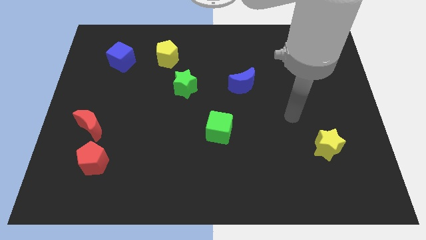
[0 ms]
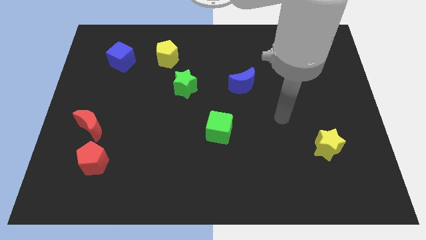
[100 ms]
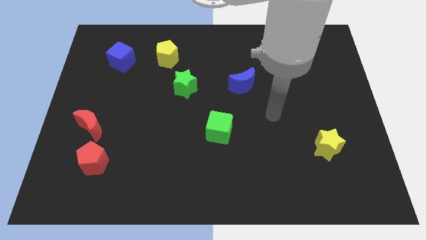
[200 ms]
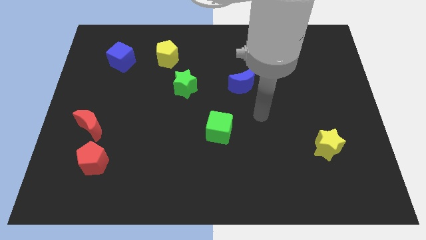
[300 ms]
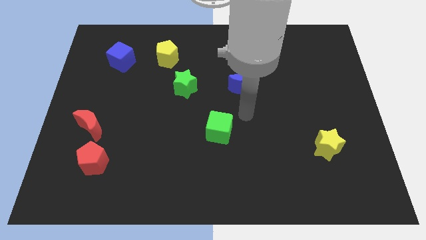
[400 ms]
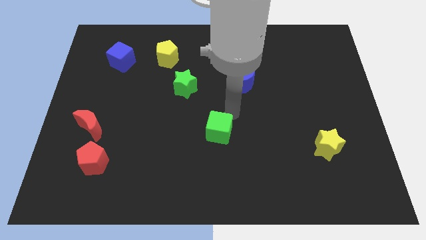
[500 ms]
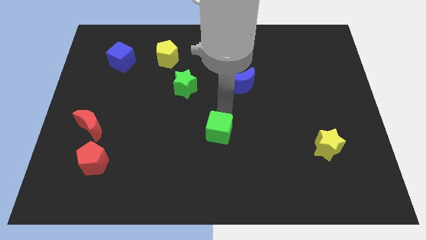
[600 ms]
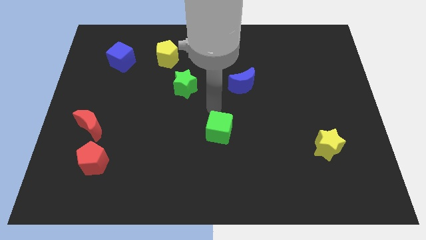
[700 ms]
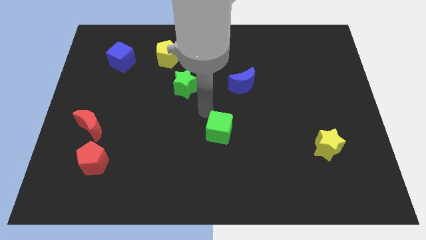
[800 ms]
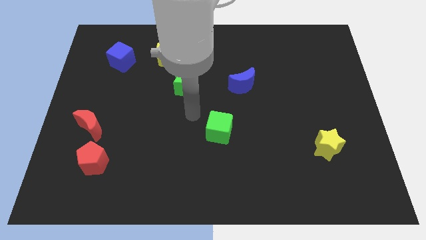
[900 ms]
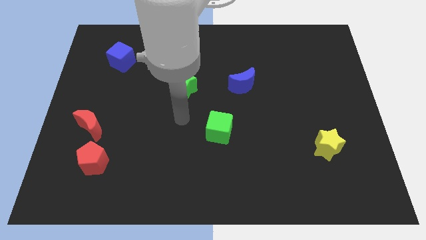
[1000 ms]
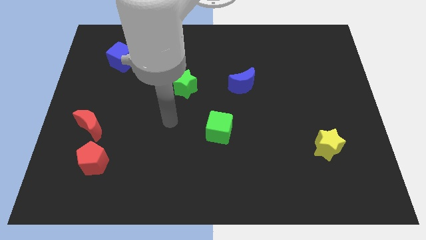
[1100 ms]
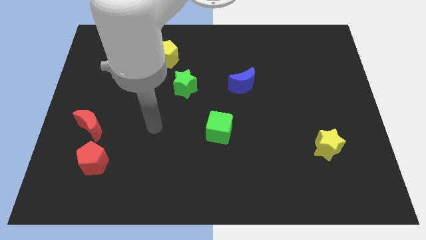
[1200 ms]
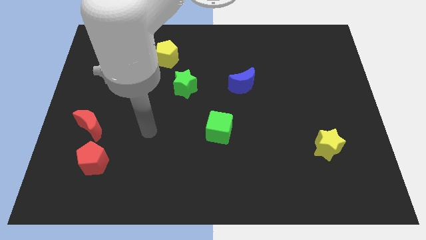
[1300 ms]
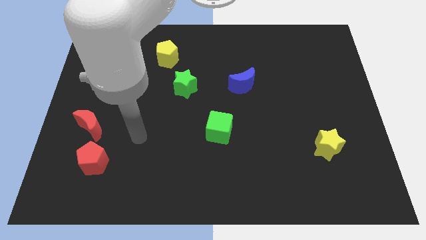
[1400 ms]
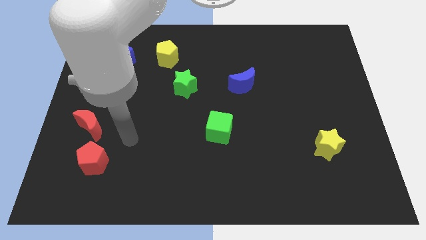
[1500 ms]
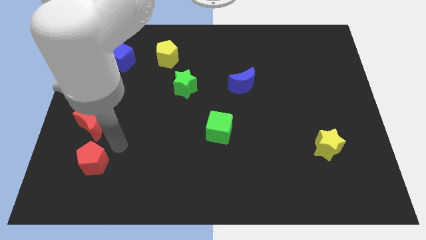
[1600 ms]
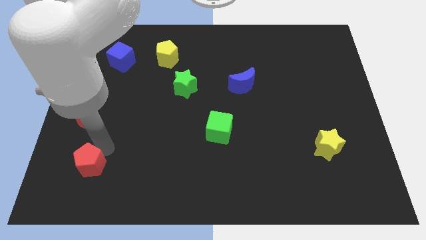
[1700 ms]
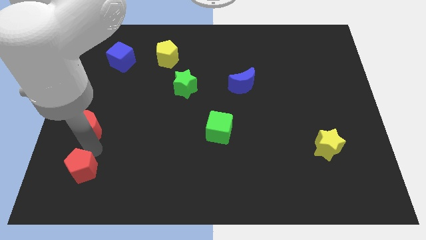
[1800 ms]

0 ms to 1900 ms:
pull the red moon apart from the red pentagon

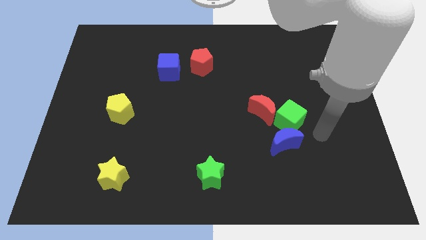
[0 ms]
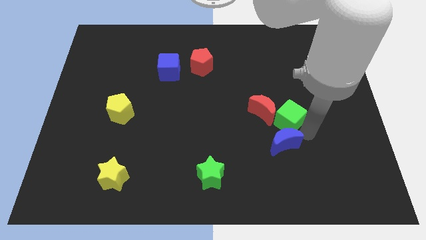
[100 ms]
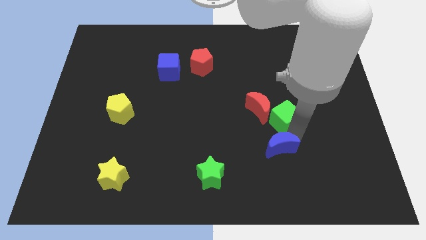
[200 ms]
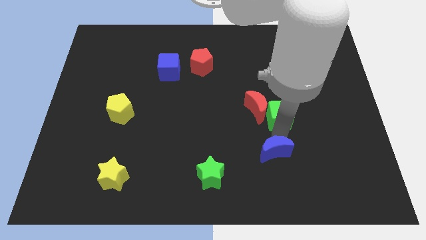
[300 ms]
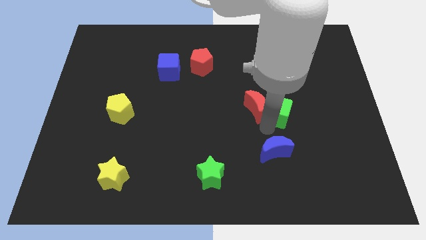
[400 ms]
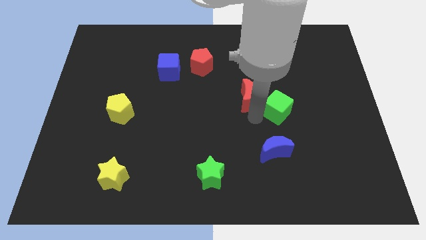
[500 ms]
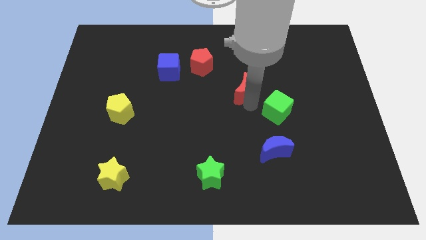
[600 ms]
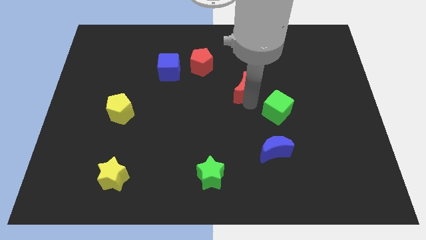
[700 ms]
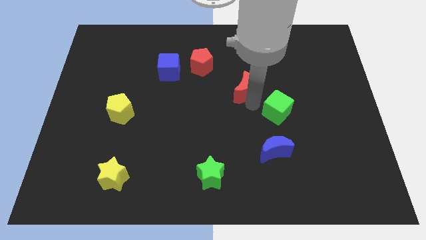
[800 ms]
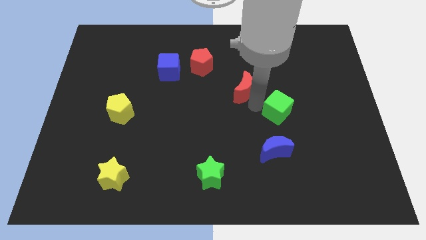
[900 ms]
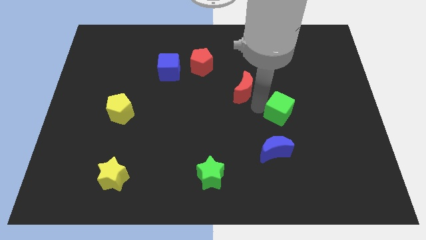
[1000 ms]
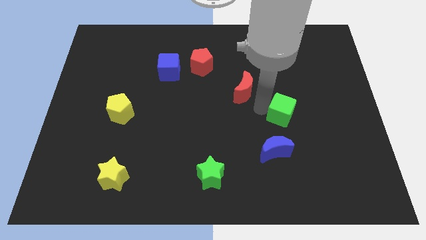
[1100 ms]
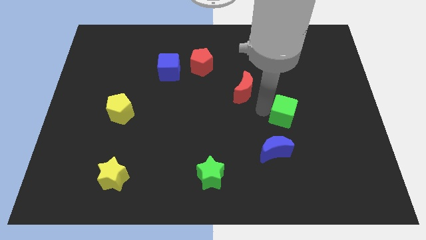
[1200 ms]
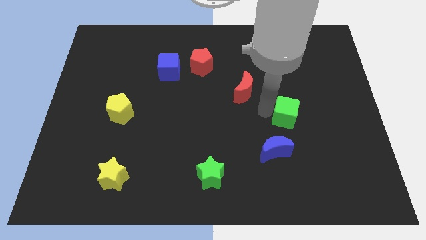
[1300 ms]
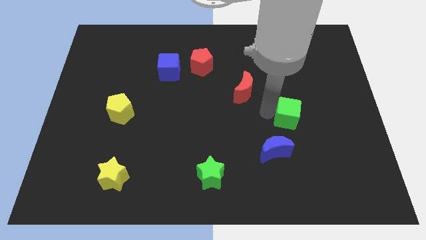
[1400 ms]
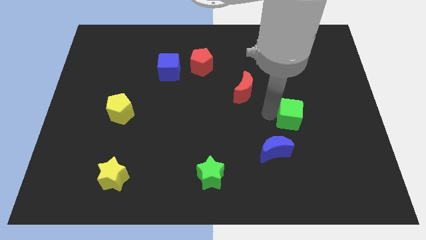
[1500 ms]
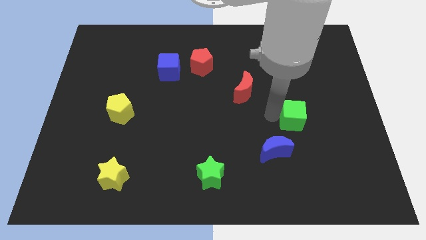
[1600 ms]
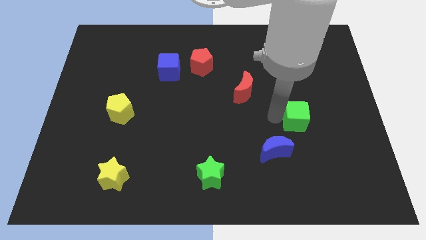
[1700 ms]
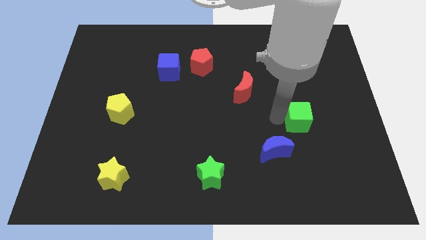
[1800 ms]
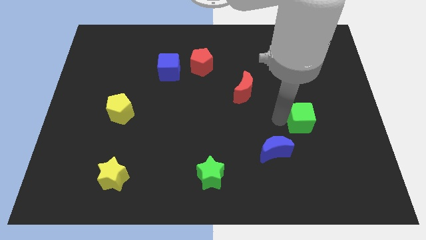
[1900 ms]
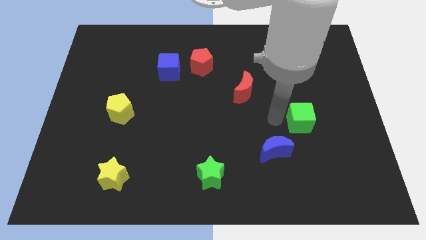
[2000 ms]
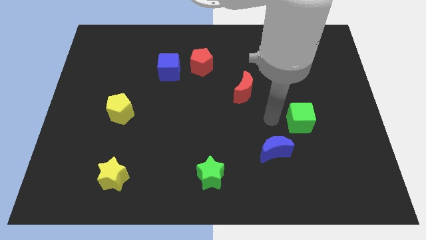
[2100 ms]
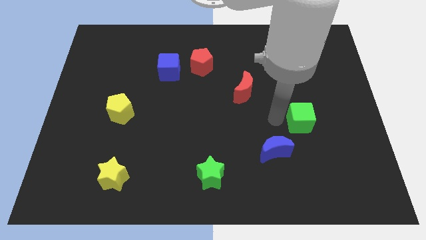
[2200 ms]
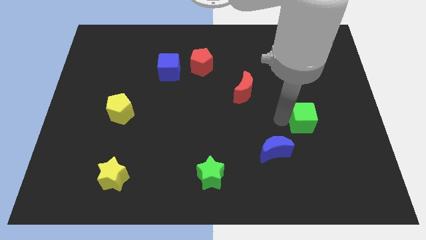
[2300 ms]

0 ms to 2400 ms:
pull the green cube apart from the red moon and blue moon

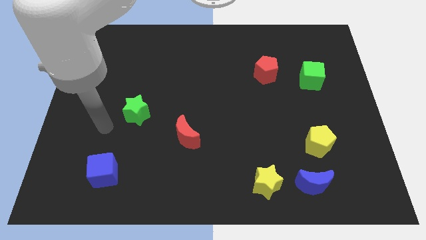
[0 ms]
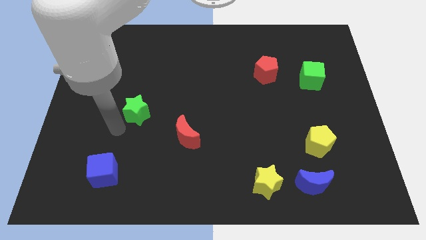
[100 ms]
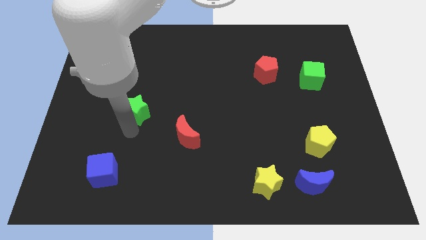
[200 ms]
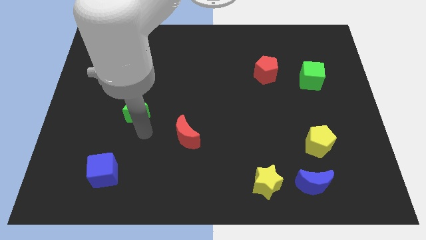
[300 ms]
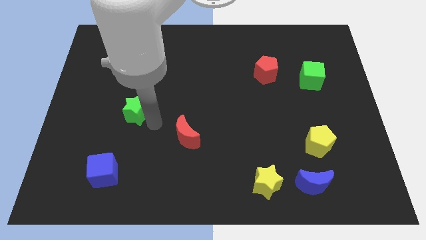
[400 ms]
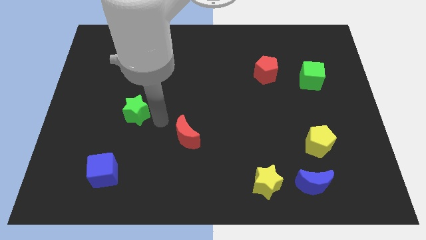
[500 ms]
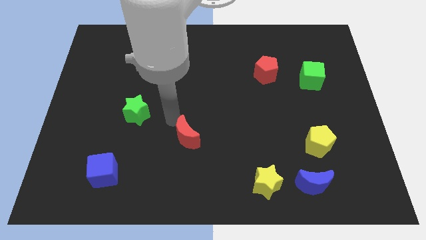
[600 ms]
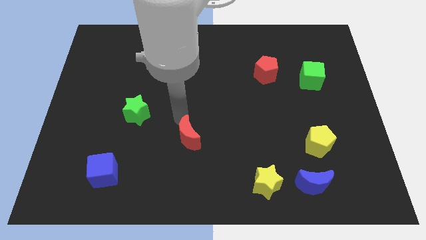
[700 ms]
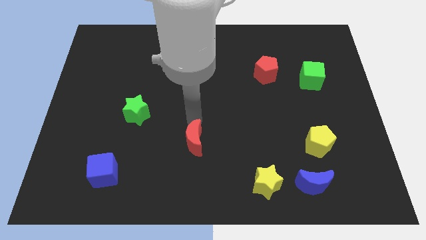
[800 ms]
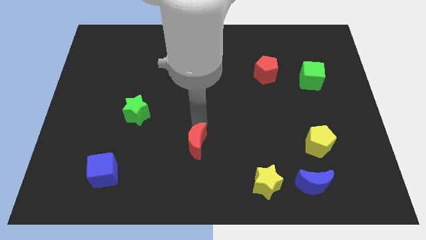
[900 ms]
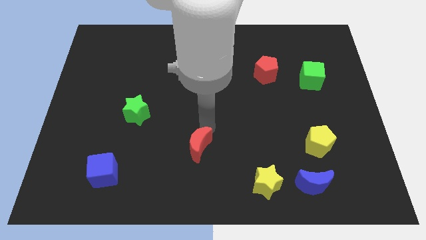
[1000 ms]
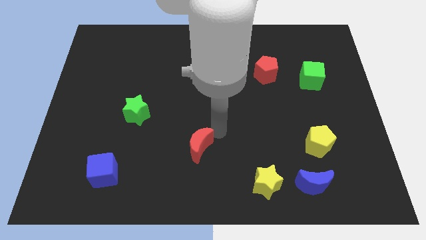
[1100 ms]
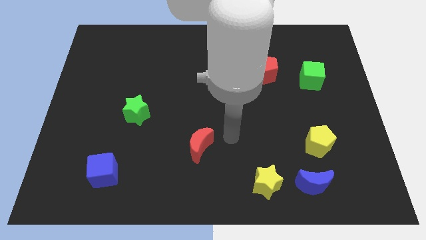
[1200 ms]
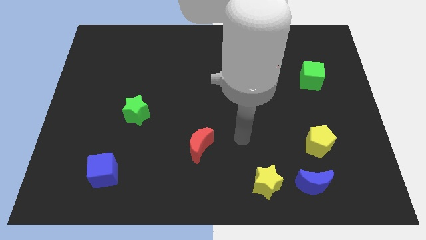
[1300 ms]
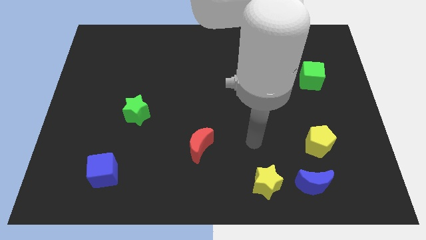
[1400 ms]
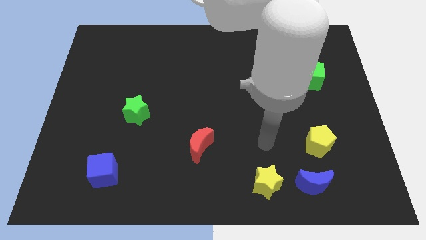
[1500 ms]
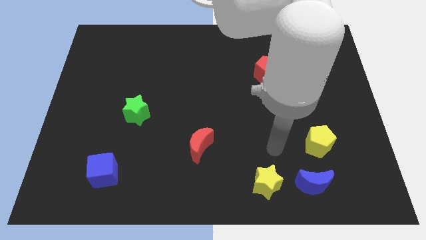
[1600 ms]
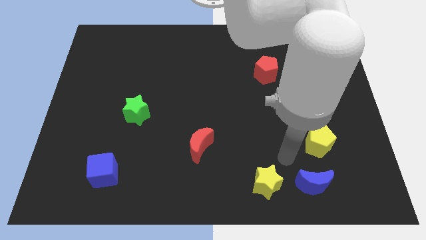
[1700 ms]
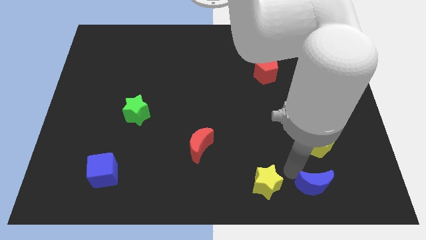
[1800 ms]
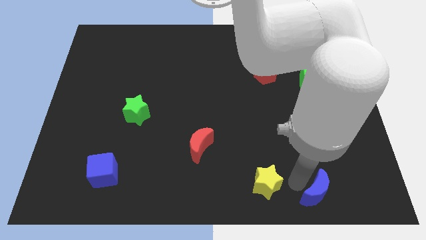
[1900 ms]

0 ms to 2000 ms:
move the yellow star away from the blue moon

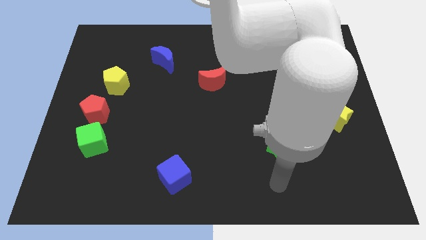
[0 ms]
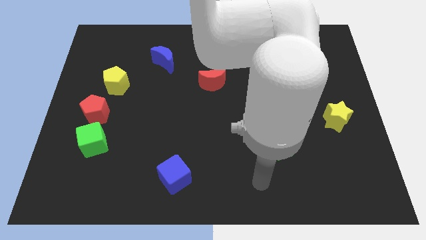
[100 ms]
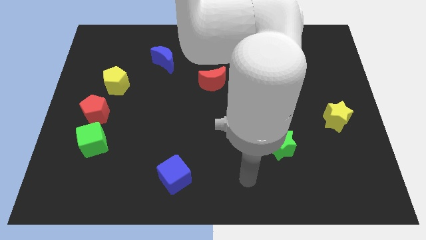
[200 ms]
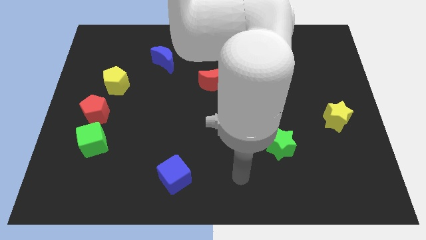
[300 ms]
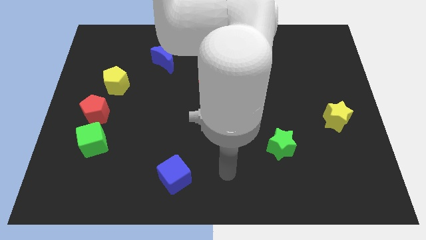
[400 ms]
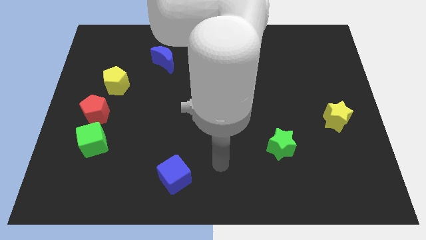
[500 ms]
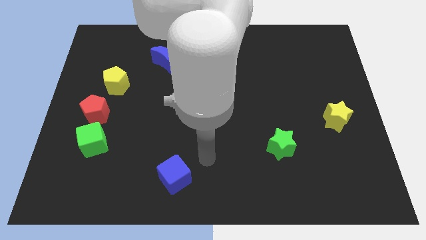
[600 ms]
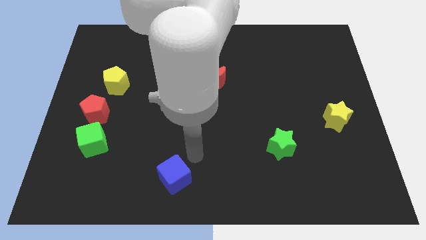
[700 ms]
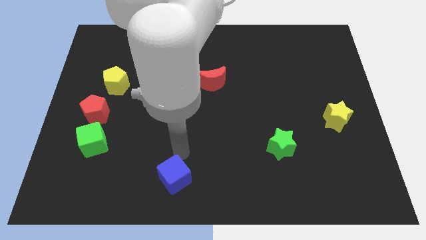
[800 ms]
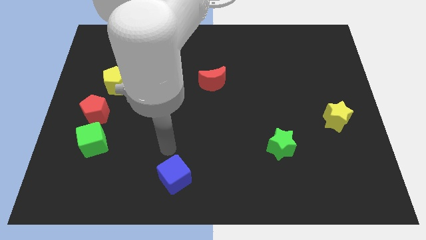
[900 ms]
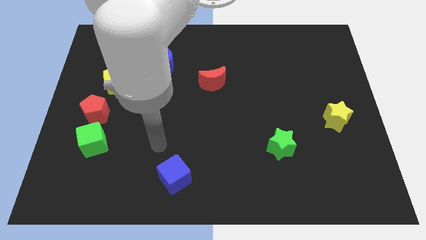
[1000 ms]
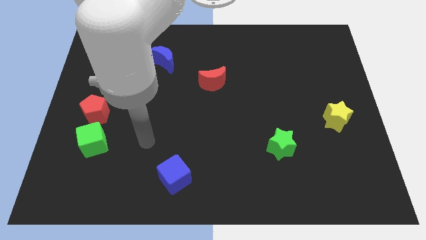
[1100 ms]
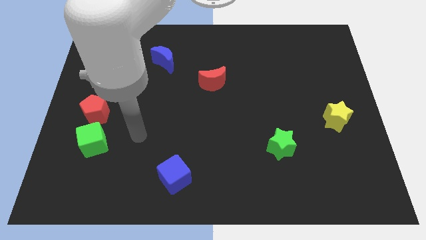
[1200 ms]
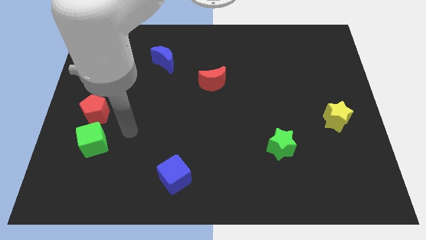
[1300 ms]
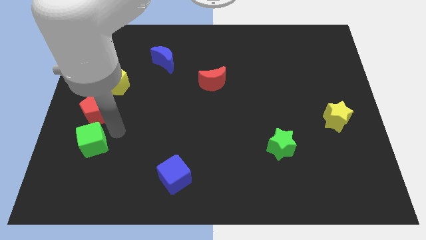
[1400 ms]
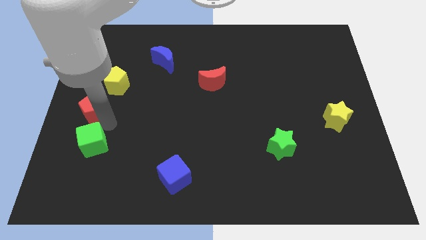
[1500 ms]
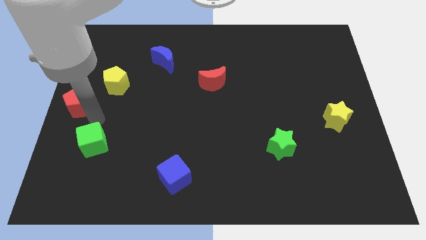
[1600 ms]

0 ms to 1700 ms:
move the green cube away from the red pentagon

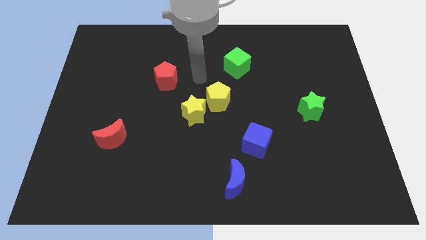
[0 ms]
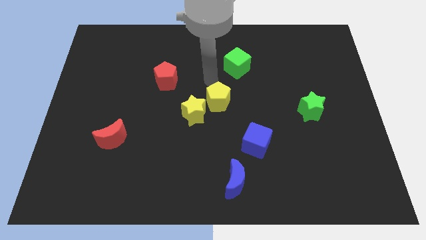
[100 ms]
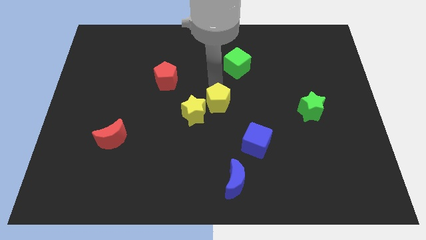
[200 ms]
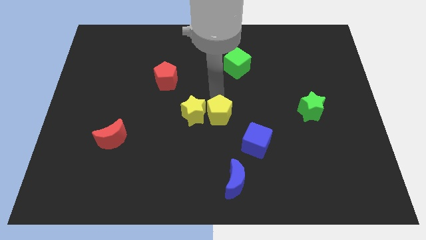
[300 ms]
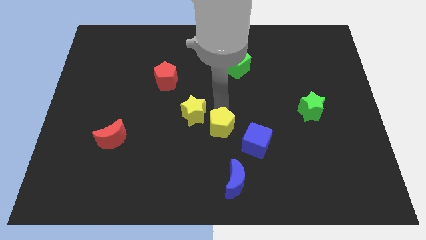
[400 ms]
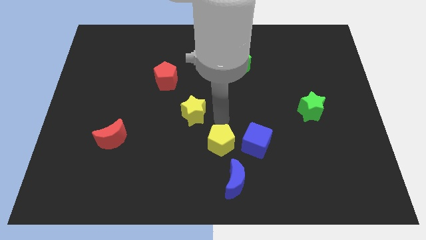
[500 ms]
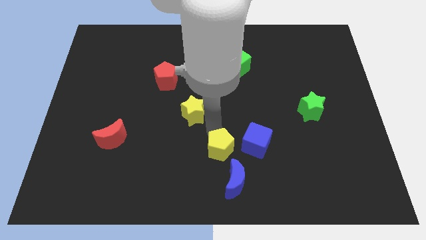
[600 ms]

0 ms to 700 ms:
move the yellow star away from the yellow pentagon

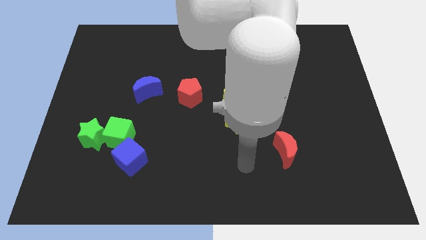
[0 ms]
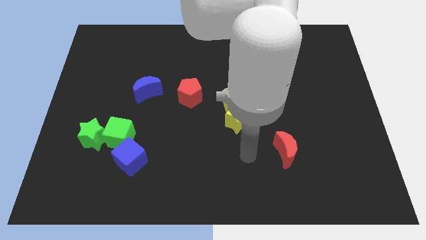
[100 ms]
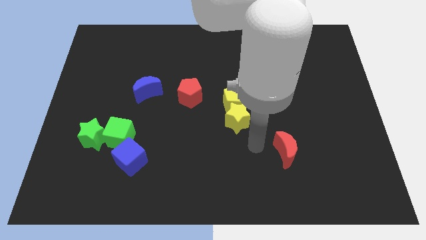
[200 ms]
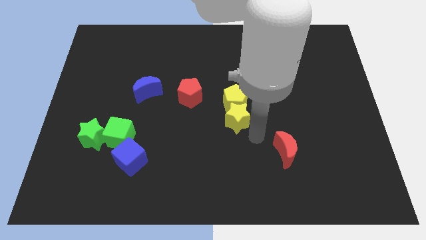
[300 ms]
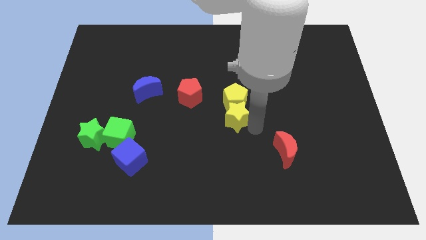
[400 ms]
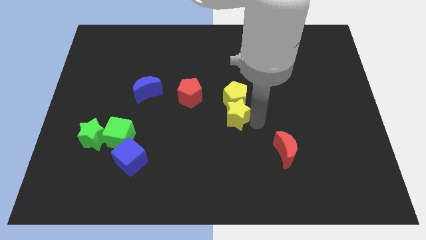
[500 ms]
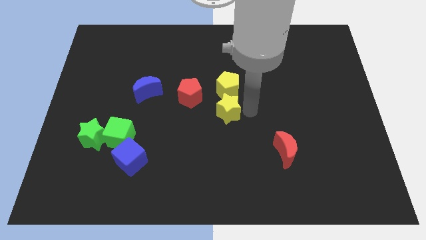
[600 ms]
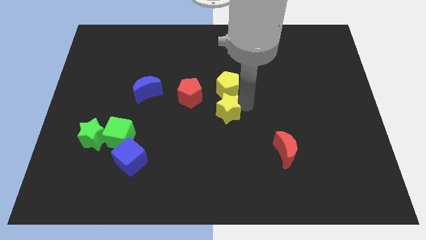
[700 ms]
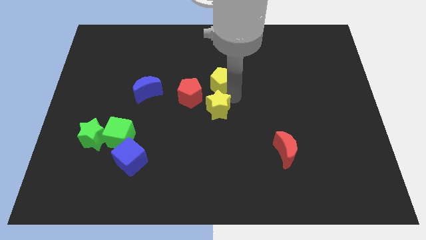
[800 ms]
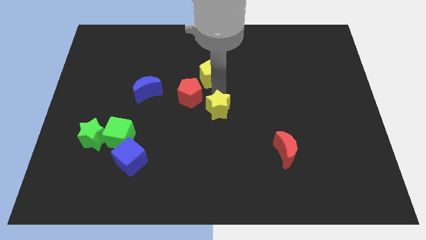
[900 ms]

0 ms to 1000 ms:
separate the yellow star from the yellow pentagon
